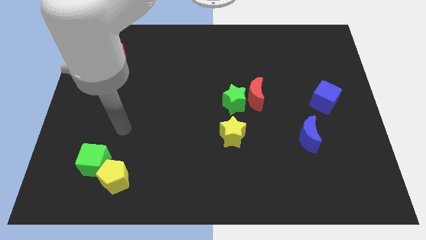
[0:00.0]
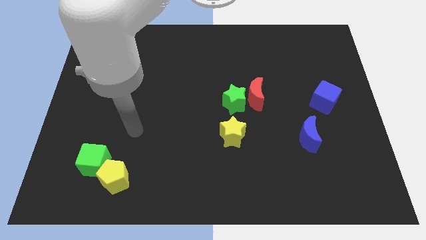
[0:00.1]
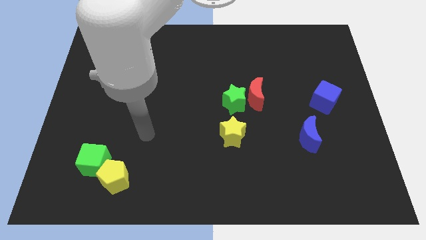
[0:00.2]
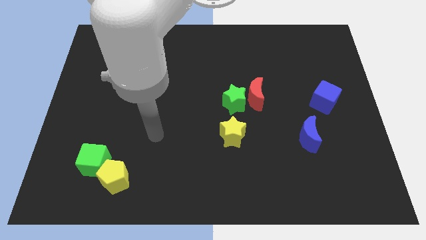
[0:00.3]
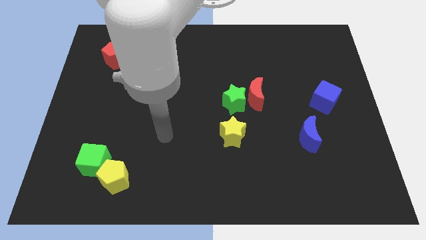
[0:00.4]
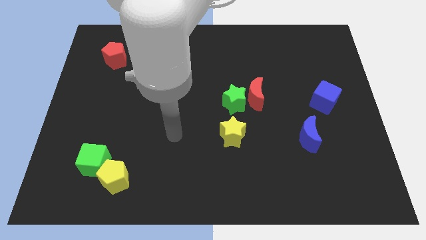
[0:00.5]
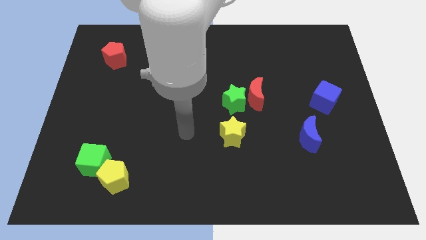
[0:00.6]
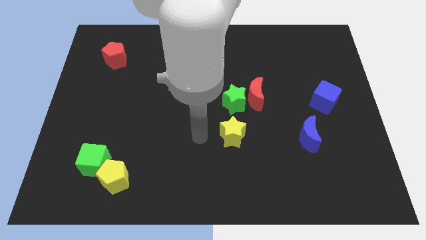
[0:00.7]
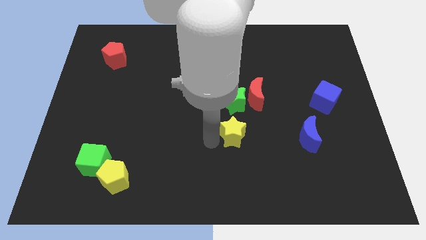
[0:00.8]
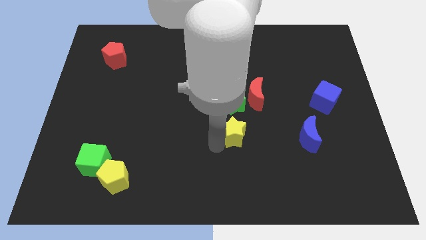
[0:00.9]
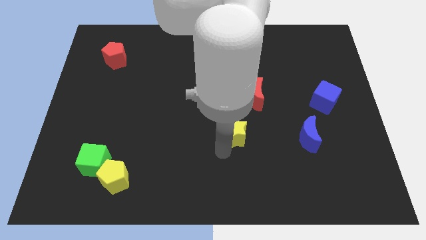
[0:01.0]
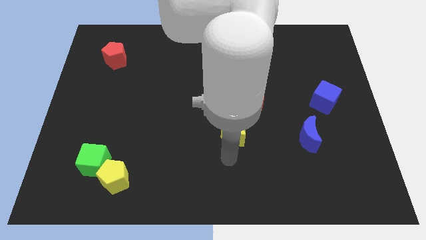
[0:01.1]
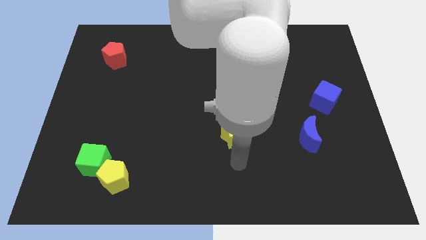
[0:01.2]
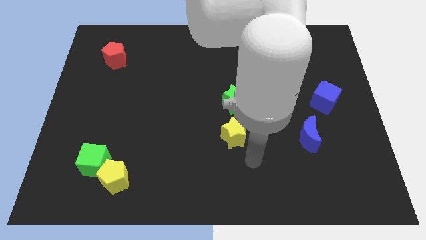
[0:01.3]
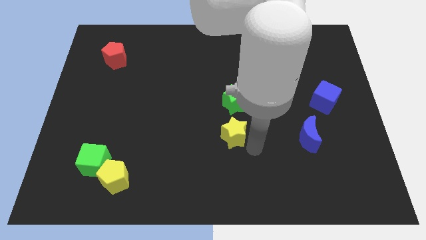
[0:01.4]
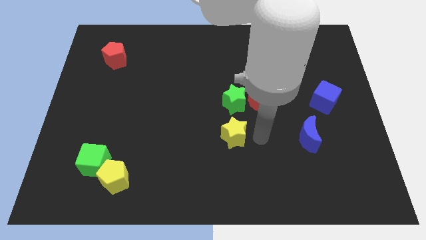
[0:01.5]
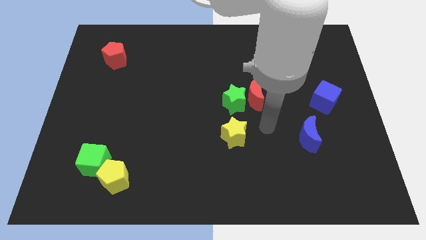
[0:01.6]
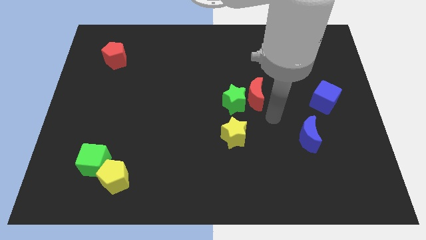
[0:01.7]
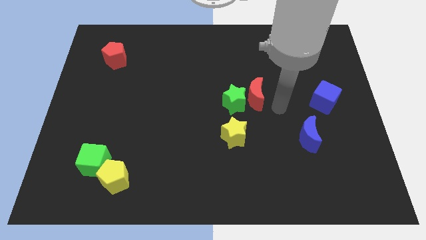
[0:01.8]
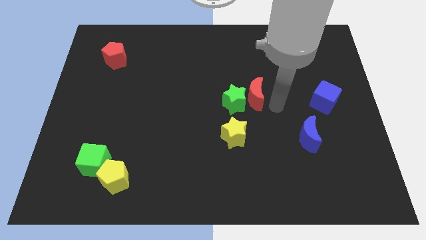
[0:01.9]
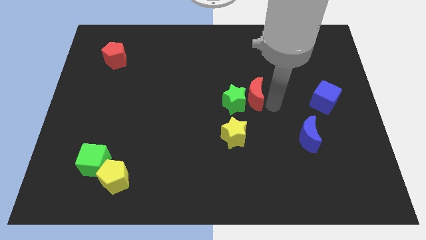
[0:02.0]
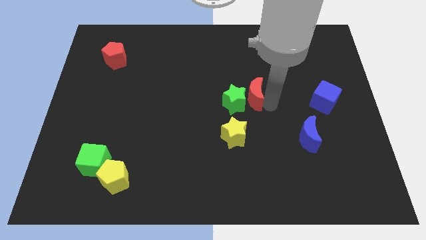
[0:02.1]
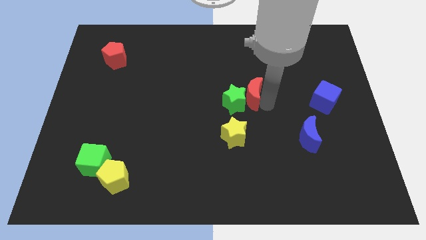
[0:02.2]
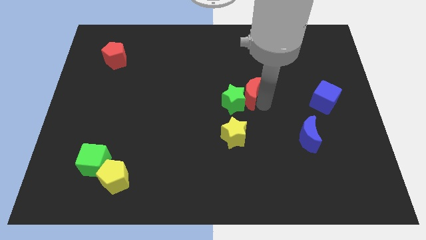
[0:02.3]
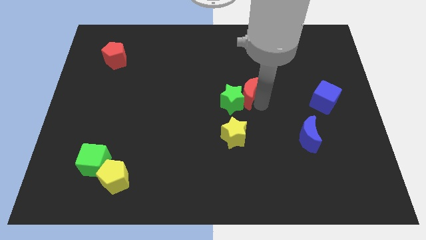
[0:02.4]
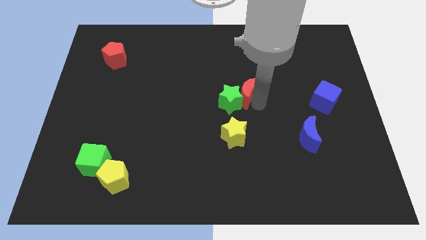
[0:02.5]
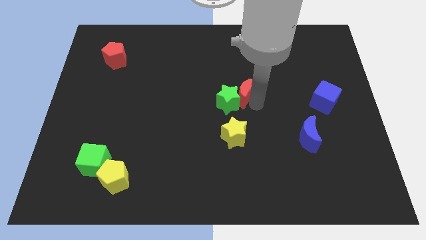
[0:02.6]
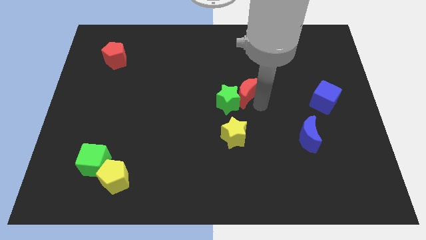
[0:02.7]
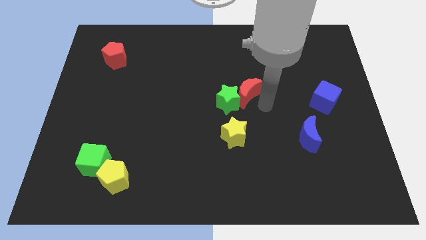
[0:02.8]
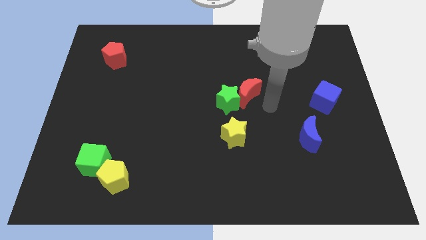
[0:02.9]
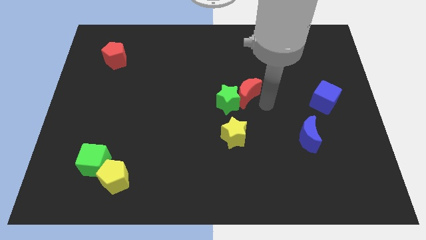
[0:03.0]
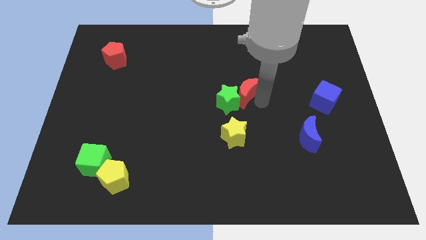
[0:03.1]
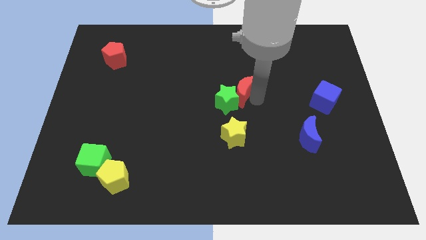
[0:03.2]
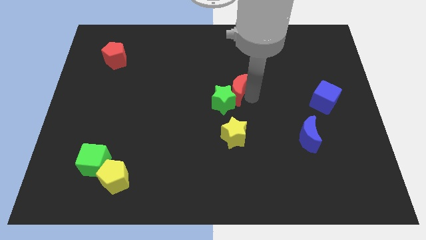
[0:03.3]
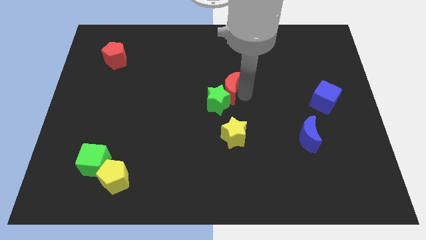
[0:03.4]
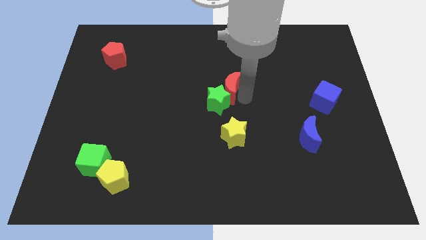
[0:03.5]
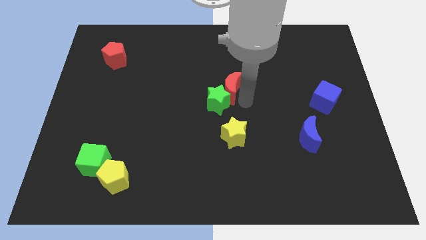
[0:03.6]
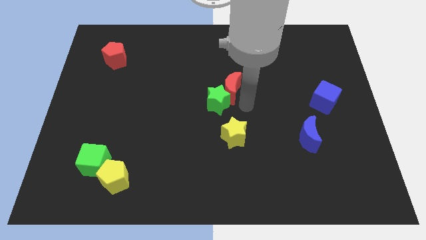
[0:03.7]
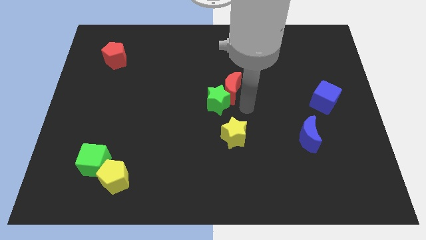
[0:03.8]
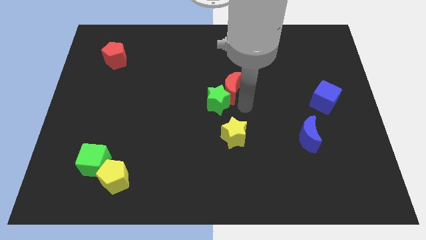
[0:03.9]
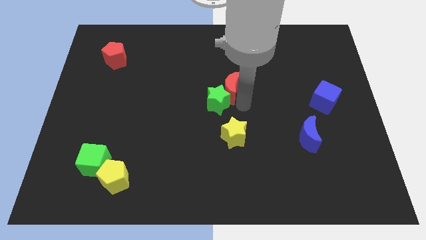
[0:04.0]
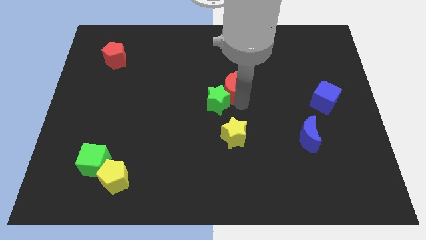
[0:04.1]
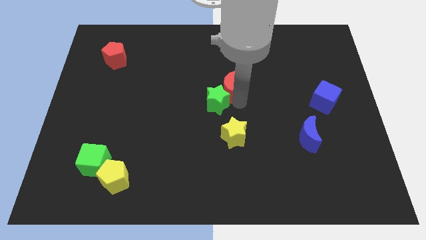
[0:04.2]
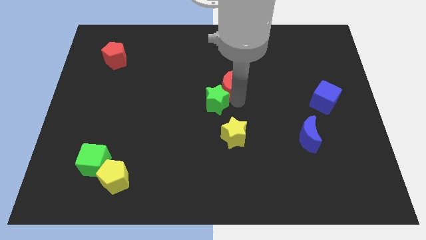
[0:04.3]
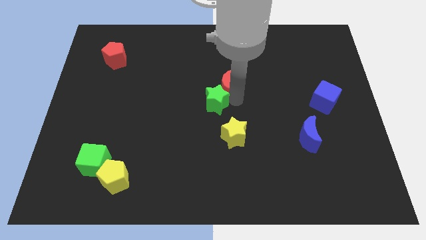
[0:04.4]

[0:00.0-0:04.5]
move the red moon slightly upwards and to the left

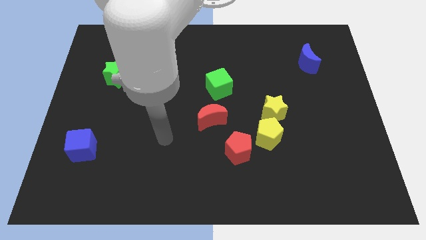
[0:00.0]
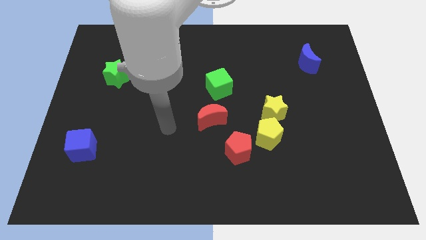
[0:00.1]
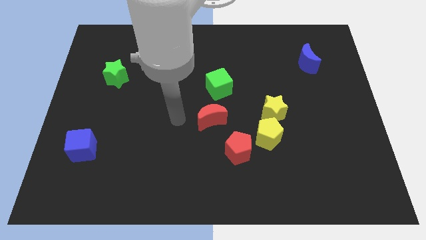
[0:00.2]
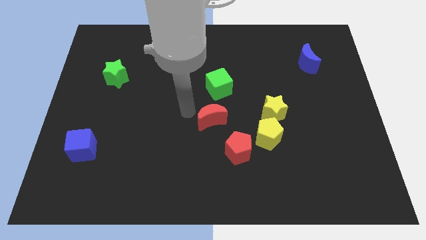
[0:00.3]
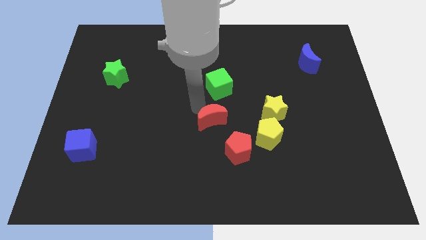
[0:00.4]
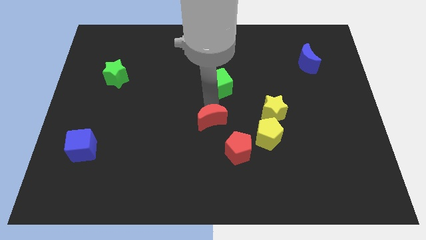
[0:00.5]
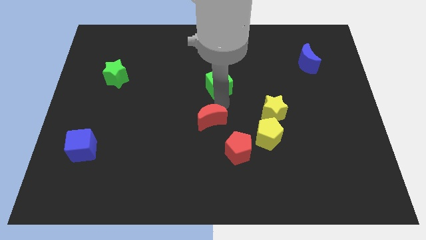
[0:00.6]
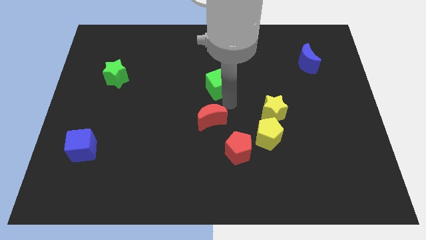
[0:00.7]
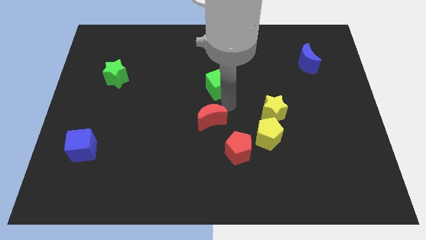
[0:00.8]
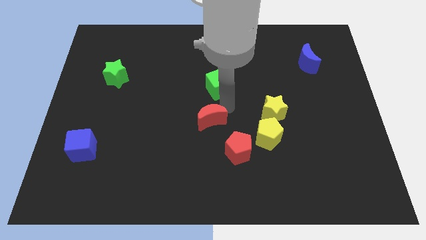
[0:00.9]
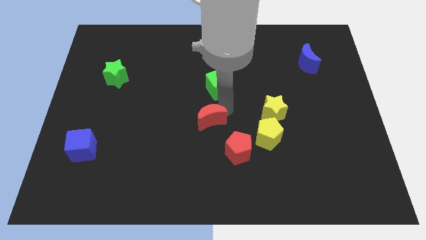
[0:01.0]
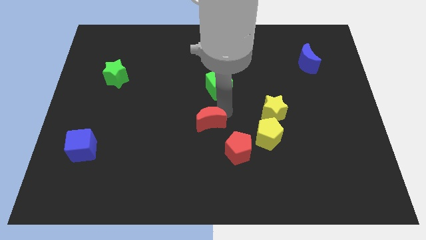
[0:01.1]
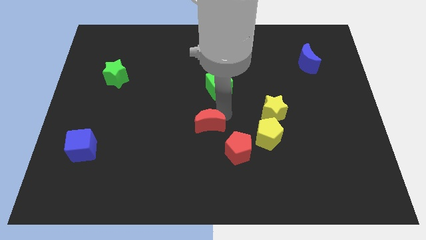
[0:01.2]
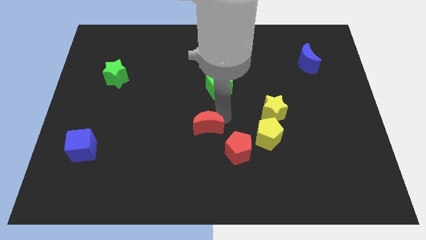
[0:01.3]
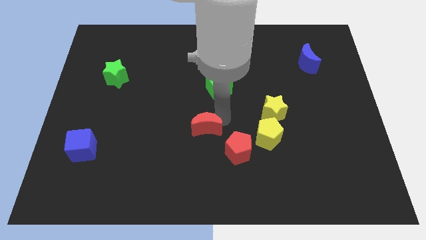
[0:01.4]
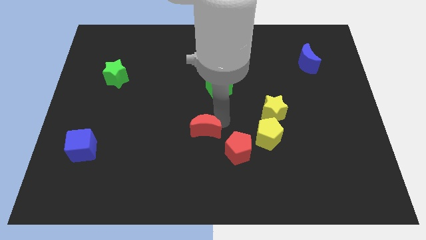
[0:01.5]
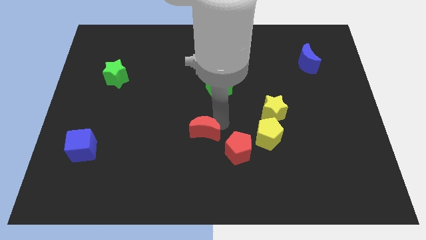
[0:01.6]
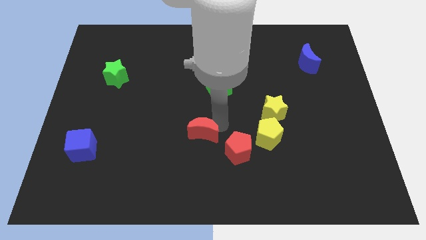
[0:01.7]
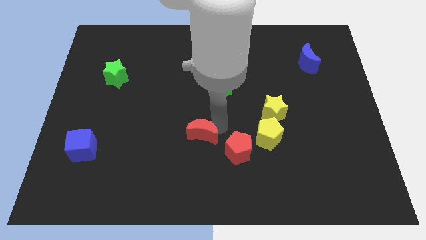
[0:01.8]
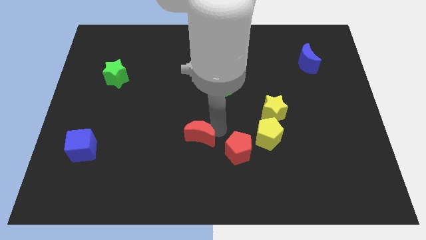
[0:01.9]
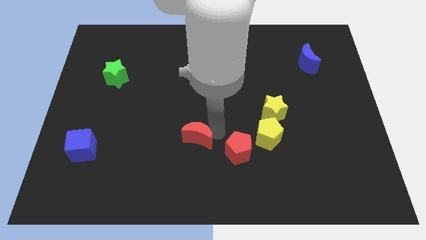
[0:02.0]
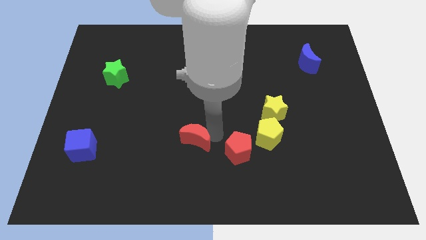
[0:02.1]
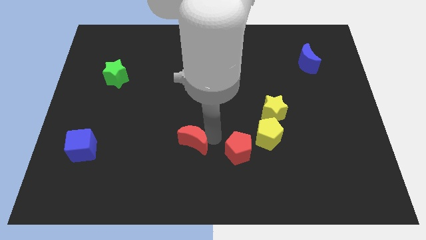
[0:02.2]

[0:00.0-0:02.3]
move the red moon somewhat downwards and then to the left

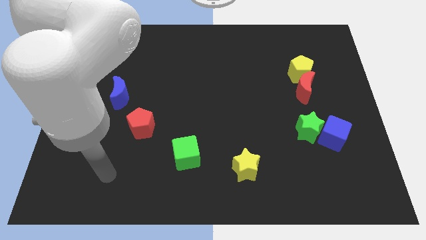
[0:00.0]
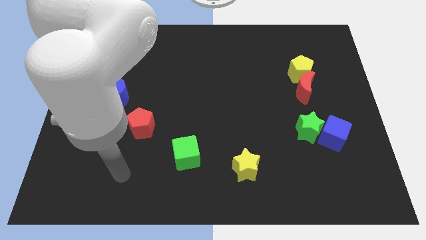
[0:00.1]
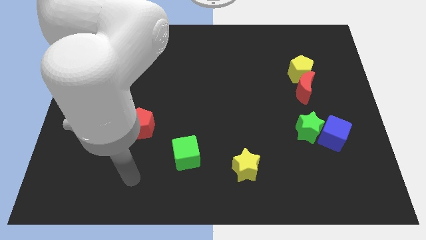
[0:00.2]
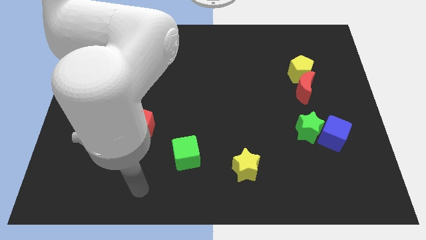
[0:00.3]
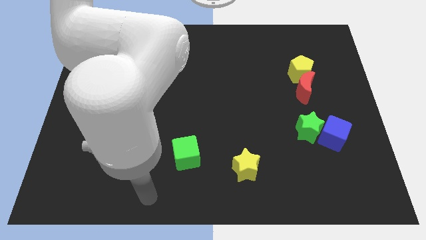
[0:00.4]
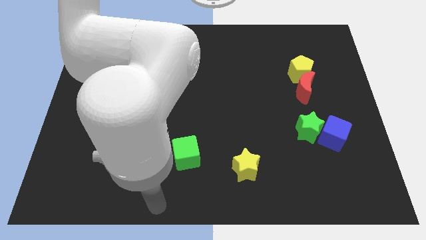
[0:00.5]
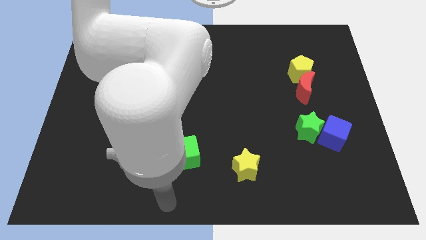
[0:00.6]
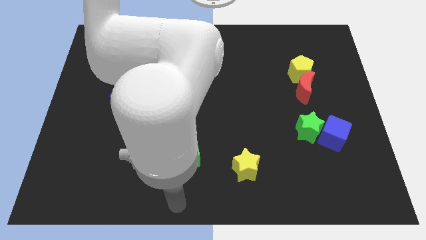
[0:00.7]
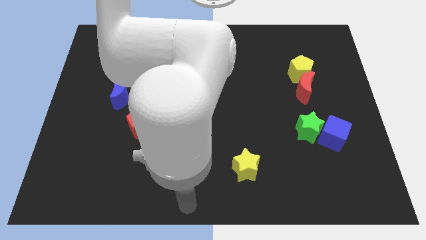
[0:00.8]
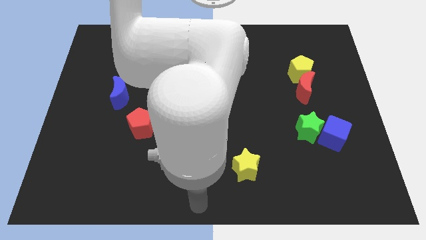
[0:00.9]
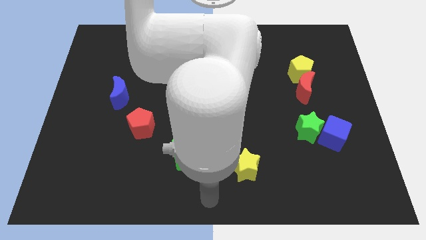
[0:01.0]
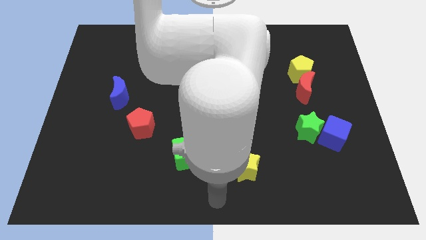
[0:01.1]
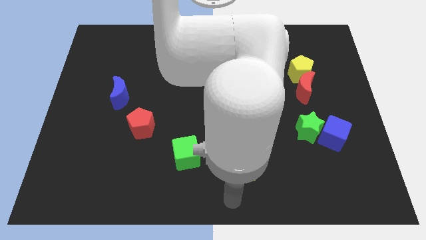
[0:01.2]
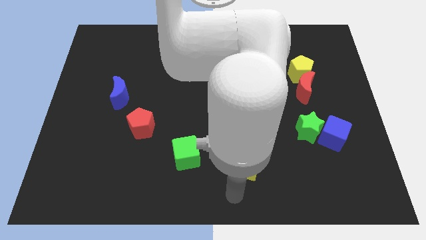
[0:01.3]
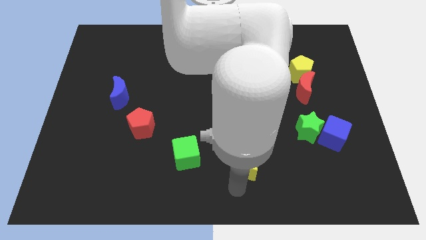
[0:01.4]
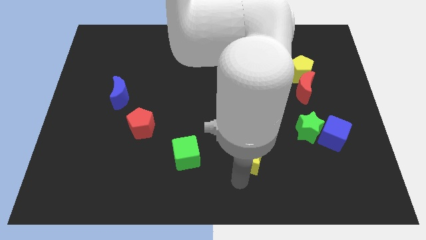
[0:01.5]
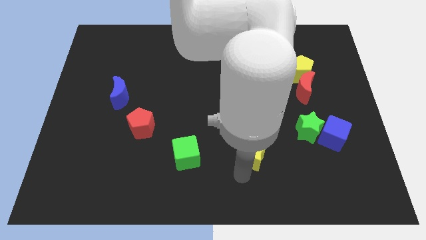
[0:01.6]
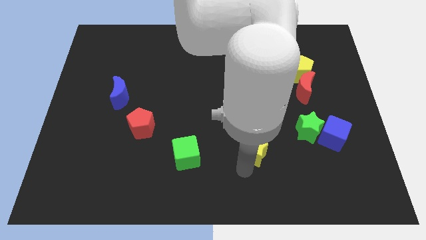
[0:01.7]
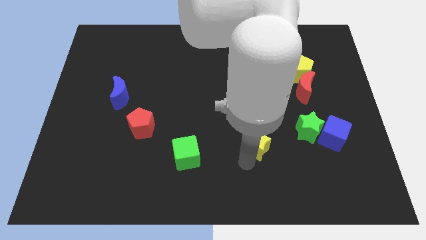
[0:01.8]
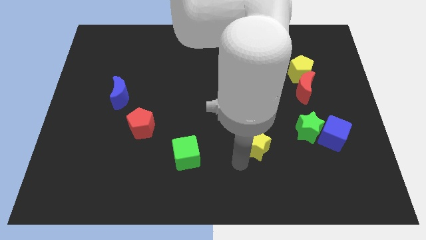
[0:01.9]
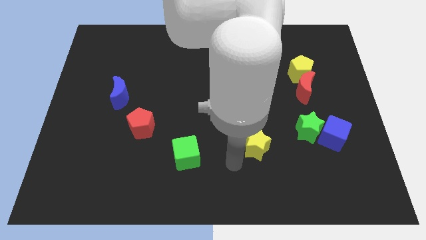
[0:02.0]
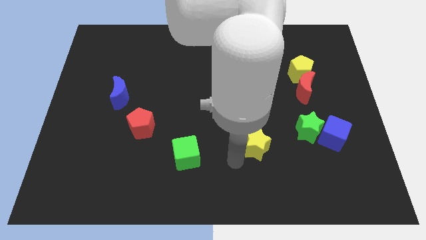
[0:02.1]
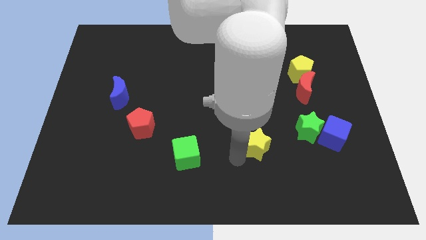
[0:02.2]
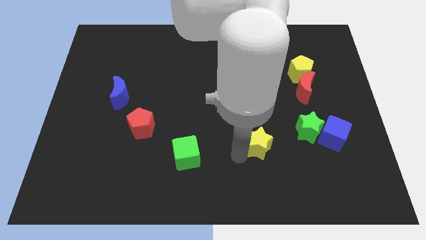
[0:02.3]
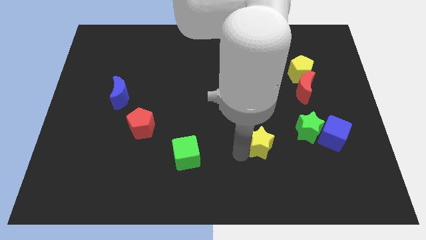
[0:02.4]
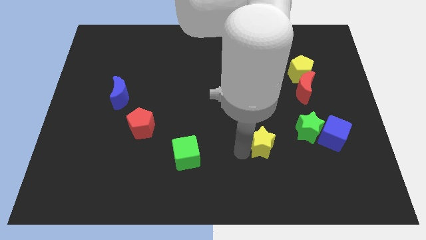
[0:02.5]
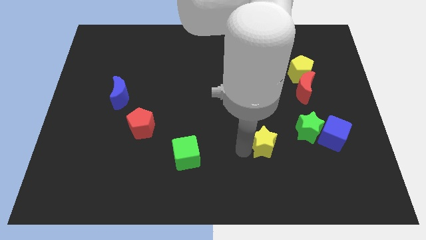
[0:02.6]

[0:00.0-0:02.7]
slightly push the yellow star upwards and to the right
